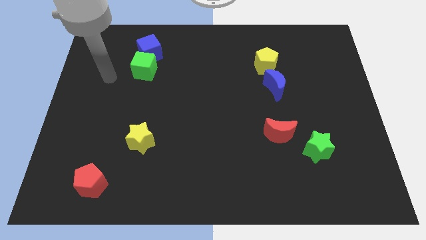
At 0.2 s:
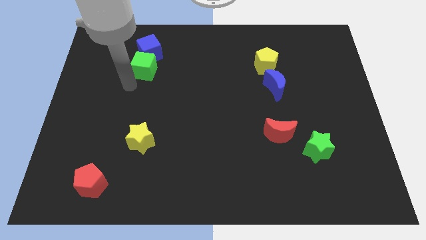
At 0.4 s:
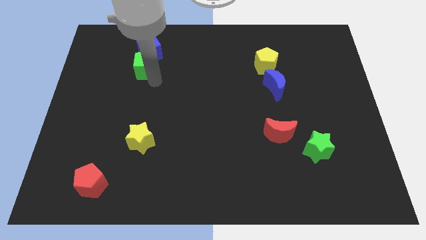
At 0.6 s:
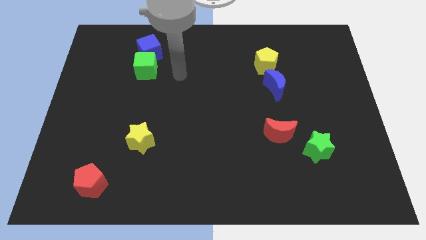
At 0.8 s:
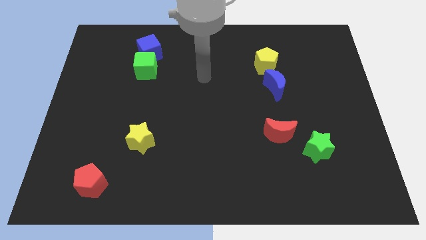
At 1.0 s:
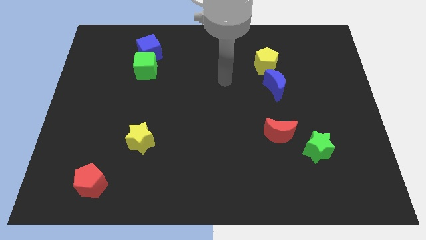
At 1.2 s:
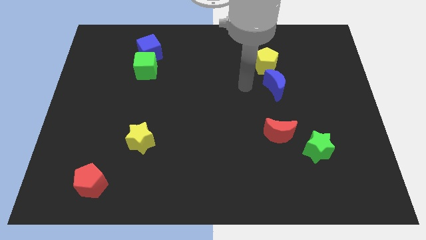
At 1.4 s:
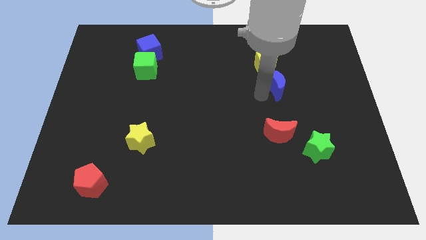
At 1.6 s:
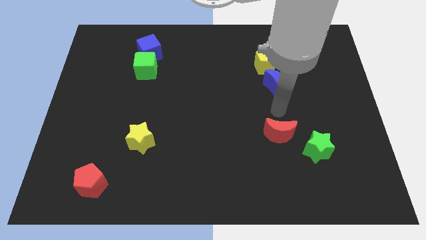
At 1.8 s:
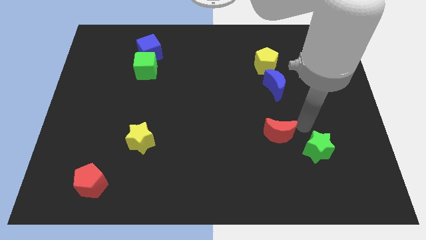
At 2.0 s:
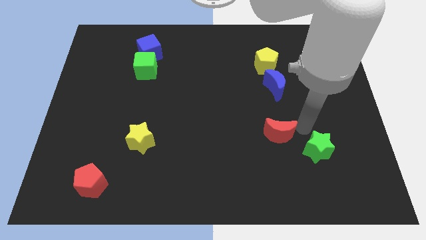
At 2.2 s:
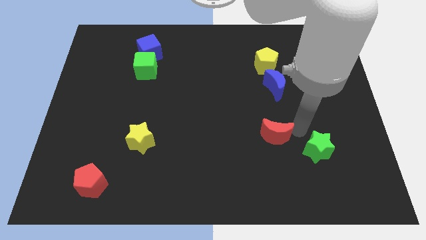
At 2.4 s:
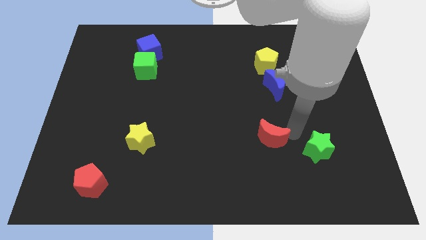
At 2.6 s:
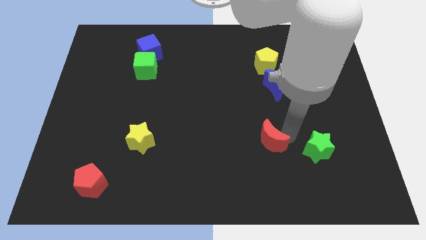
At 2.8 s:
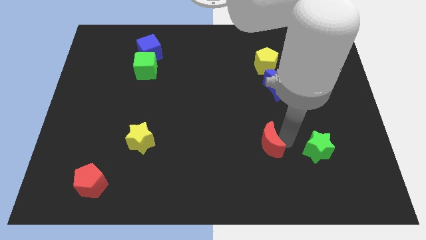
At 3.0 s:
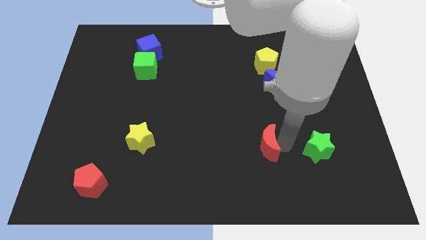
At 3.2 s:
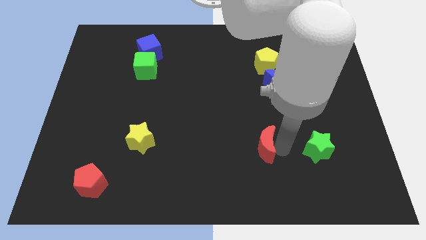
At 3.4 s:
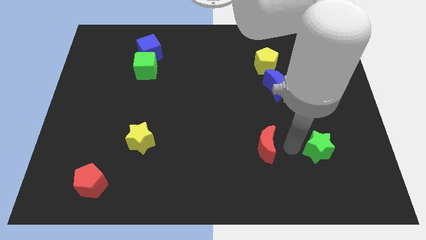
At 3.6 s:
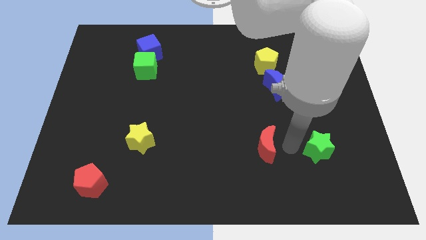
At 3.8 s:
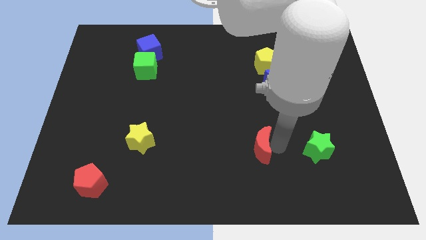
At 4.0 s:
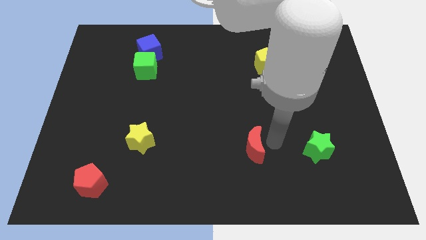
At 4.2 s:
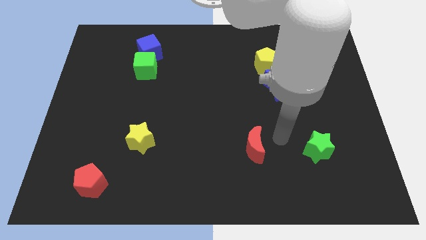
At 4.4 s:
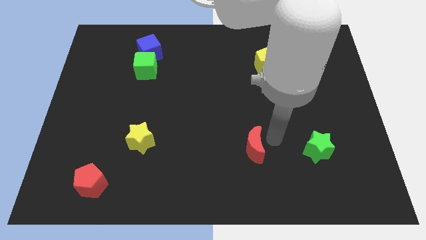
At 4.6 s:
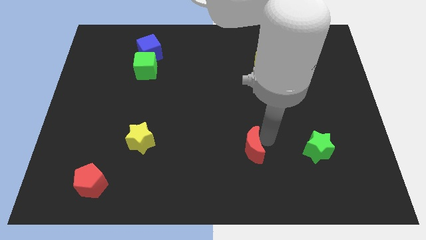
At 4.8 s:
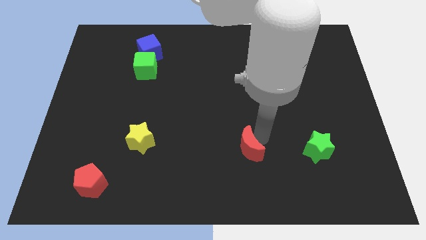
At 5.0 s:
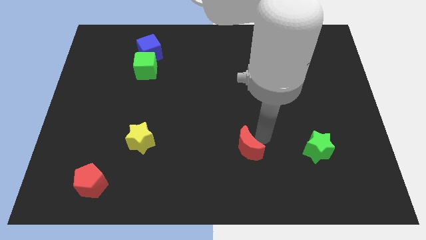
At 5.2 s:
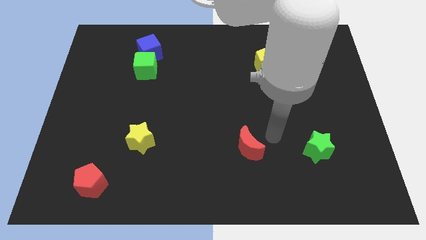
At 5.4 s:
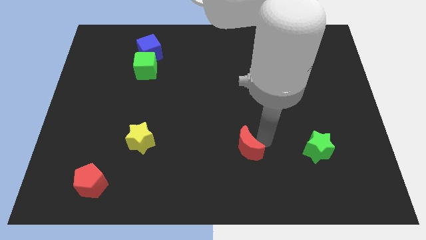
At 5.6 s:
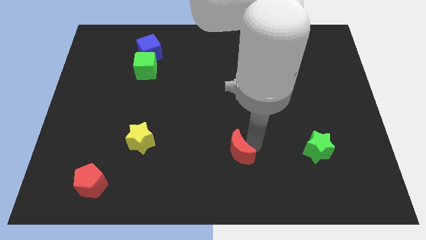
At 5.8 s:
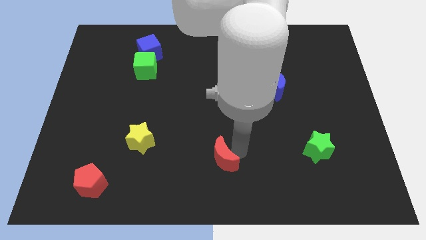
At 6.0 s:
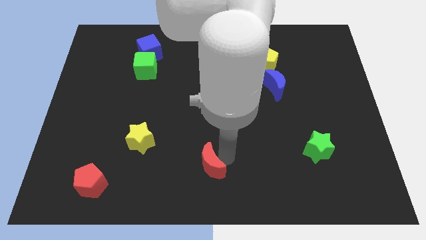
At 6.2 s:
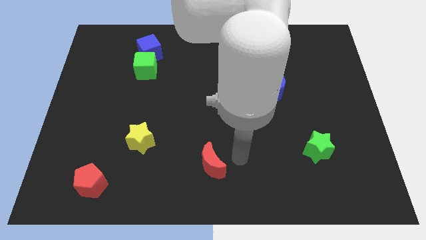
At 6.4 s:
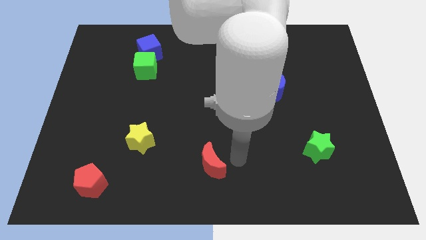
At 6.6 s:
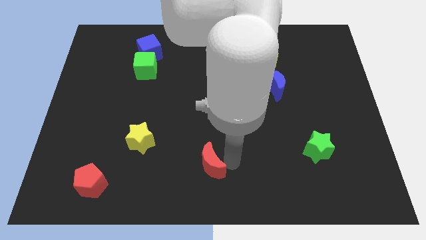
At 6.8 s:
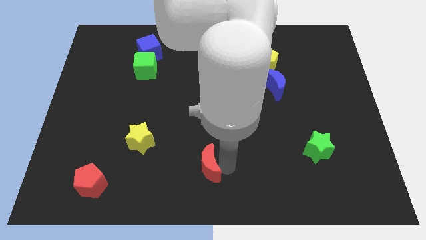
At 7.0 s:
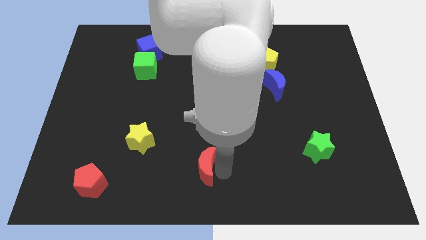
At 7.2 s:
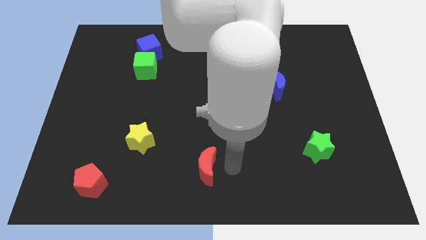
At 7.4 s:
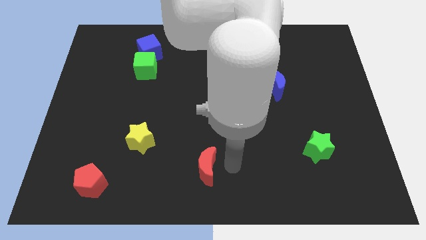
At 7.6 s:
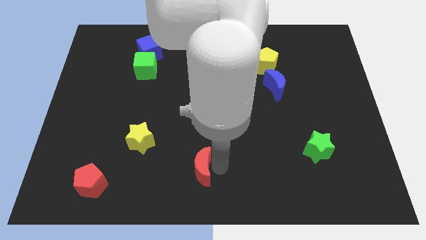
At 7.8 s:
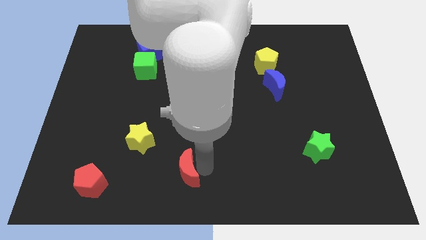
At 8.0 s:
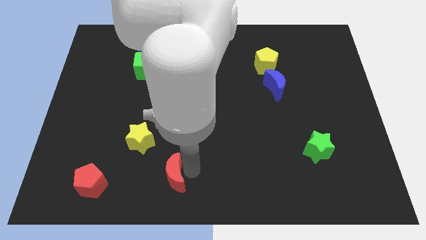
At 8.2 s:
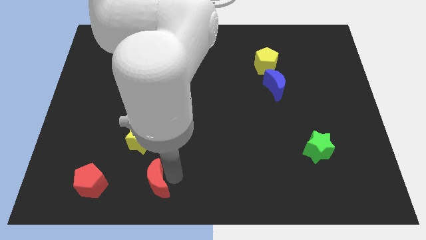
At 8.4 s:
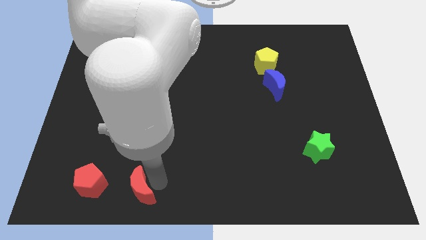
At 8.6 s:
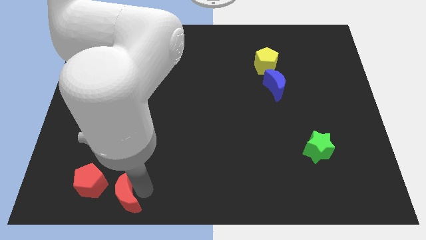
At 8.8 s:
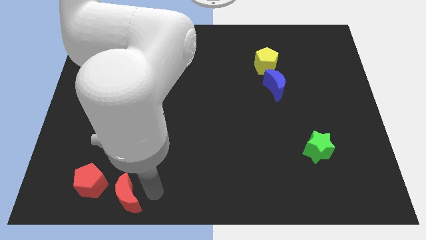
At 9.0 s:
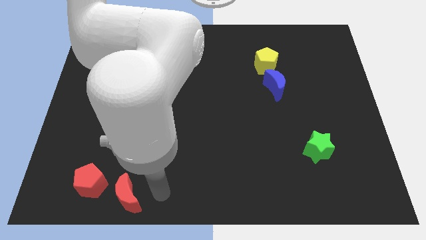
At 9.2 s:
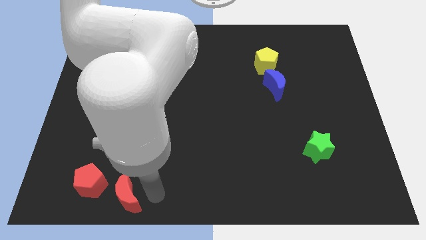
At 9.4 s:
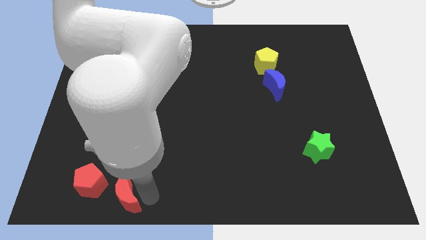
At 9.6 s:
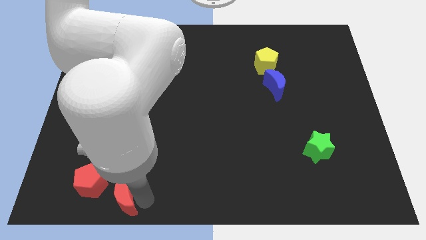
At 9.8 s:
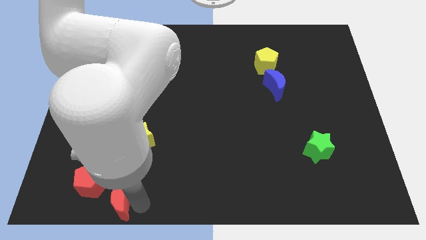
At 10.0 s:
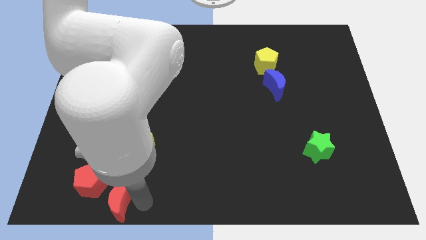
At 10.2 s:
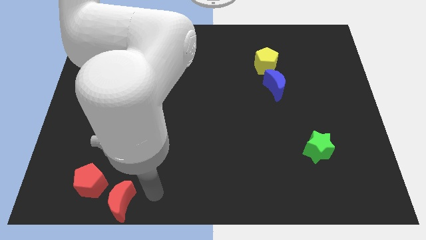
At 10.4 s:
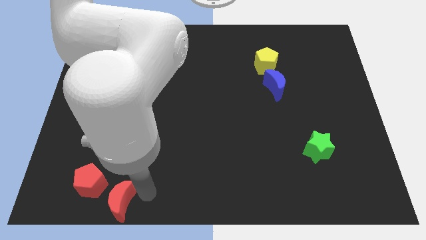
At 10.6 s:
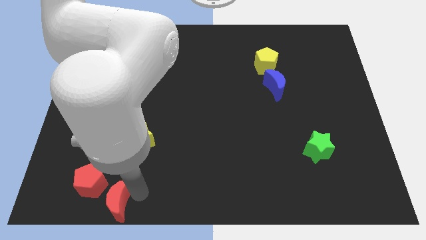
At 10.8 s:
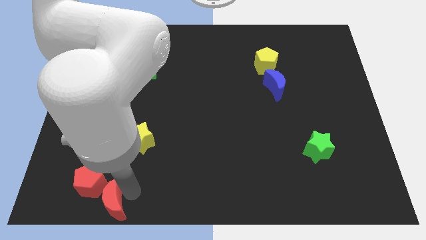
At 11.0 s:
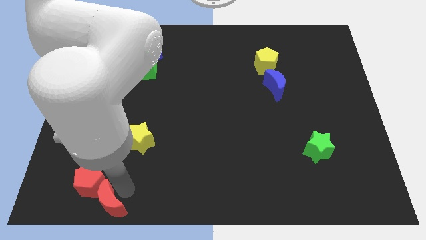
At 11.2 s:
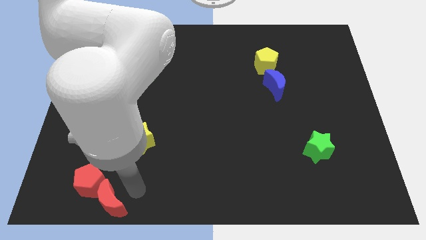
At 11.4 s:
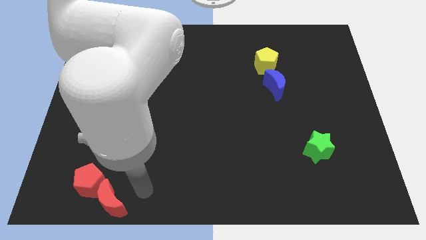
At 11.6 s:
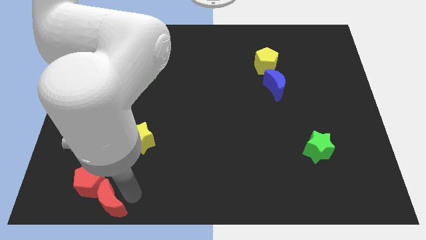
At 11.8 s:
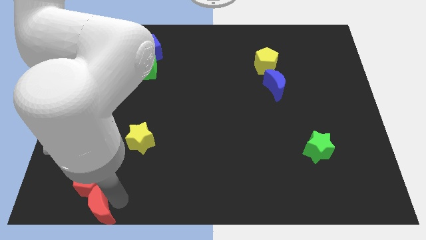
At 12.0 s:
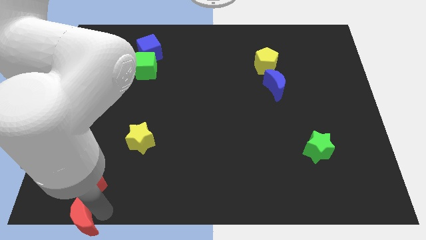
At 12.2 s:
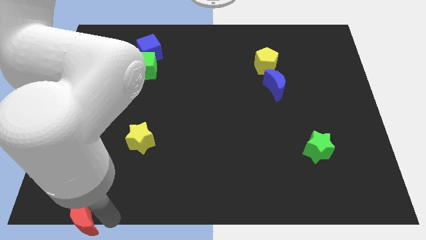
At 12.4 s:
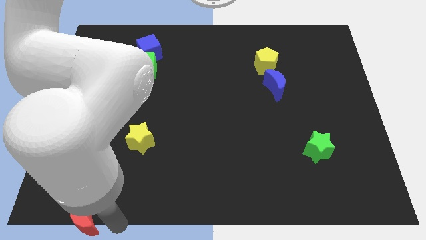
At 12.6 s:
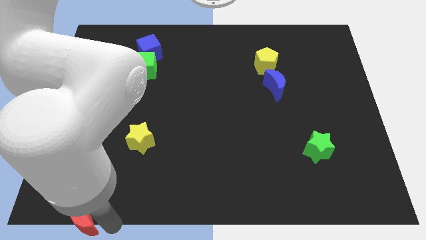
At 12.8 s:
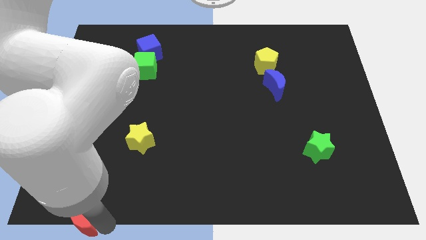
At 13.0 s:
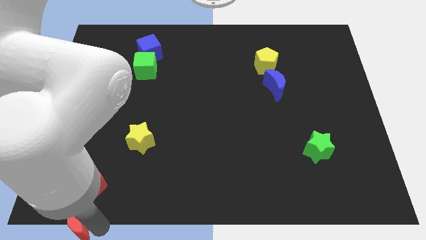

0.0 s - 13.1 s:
push the red moon to the bottom left
